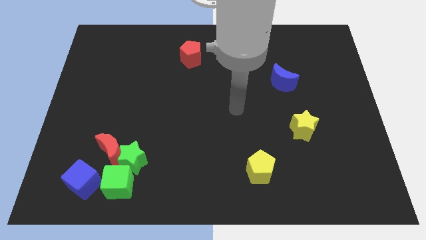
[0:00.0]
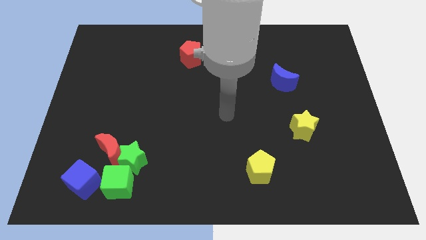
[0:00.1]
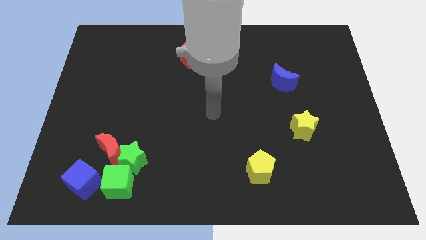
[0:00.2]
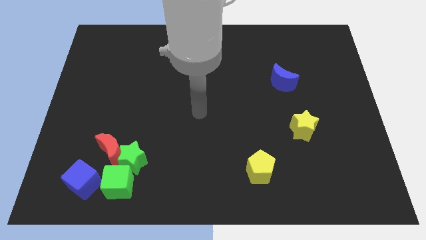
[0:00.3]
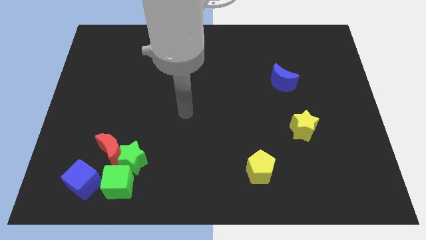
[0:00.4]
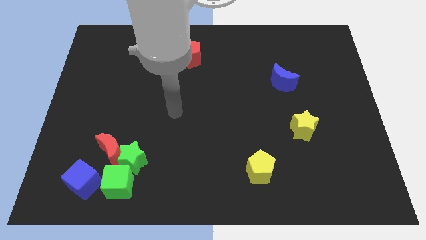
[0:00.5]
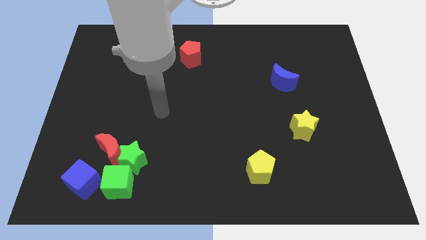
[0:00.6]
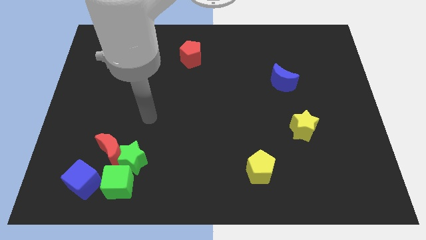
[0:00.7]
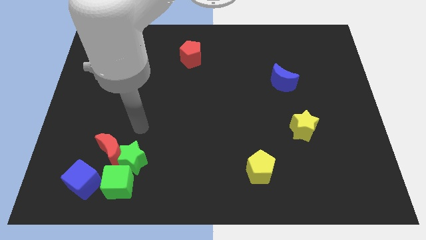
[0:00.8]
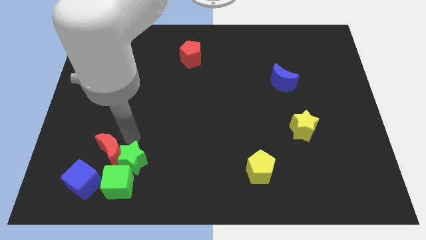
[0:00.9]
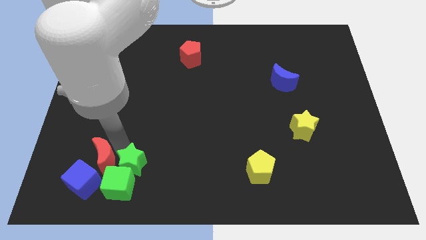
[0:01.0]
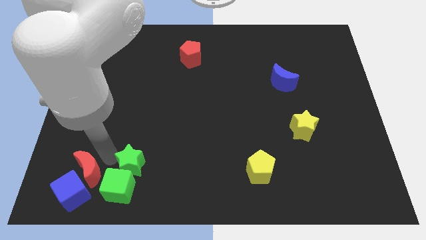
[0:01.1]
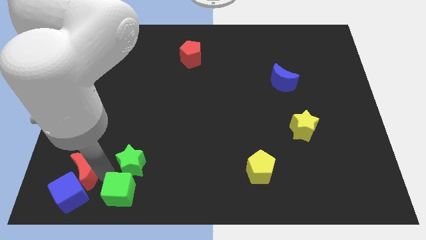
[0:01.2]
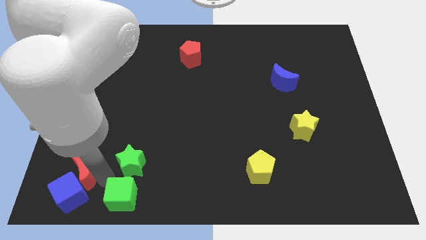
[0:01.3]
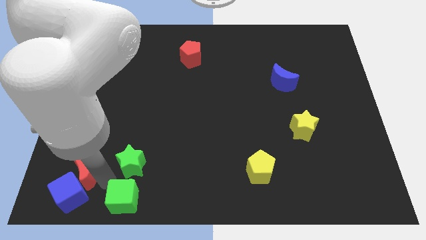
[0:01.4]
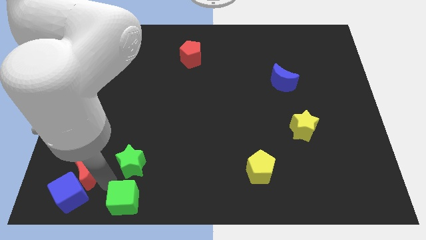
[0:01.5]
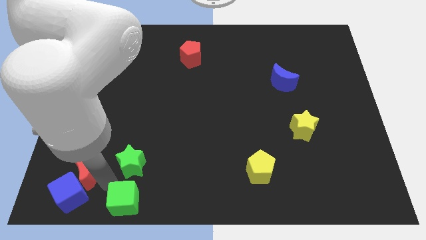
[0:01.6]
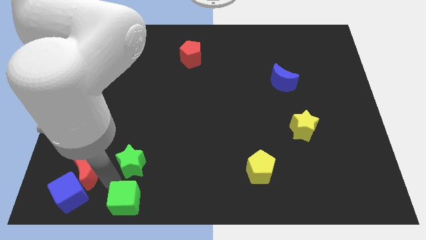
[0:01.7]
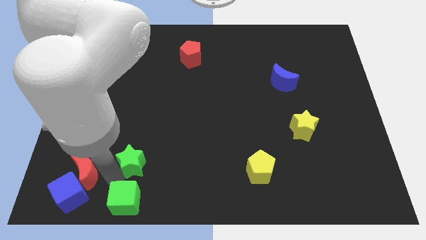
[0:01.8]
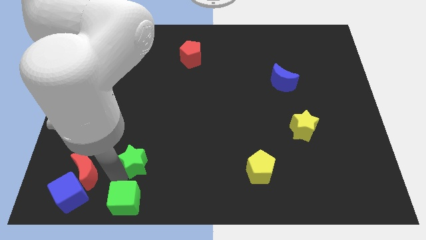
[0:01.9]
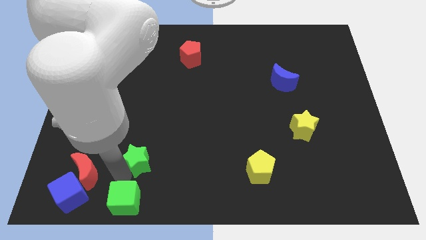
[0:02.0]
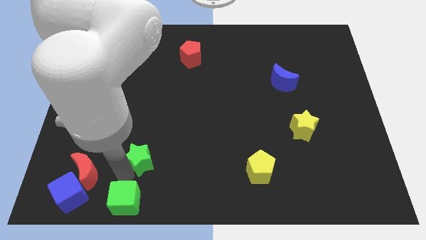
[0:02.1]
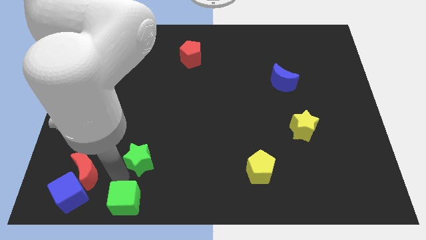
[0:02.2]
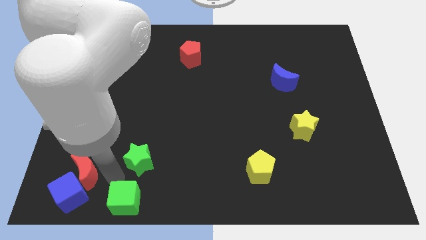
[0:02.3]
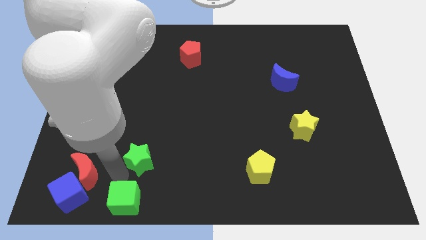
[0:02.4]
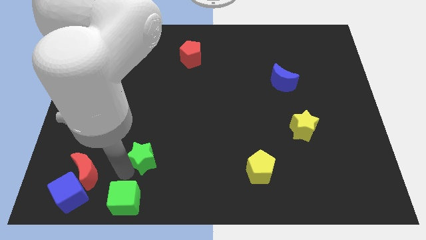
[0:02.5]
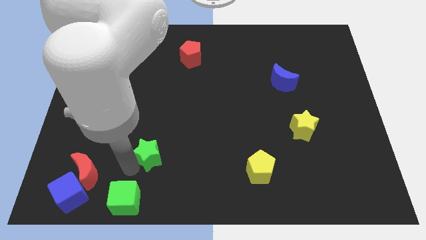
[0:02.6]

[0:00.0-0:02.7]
move the green star away from the red moon and green cube

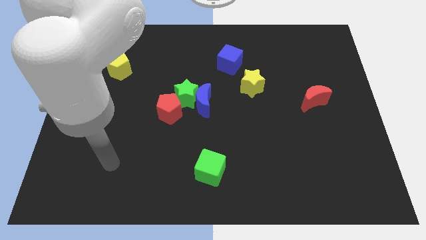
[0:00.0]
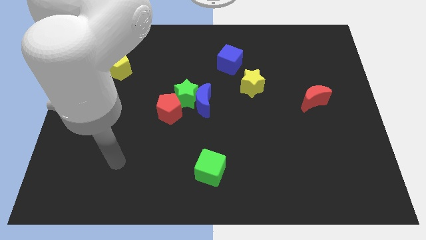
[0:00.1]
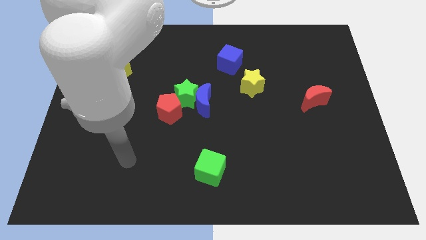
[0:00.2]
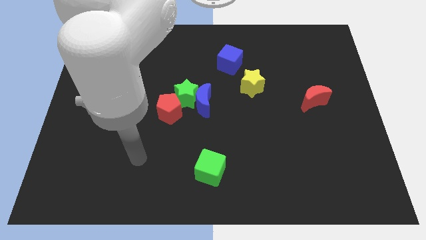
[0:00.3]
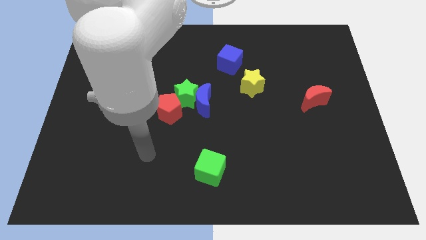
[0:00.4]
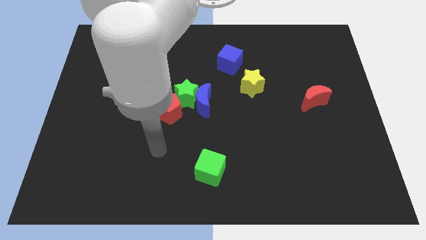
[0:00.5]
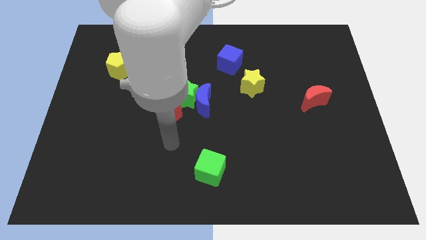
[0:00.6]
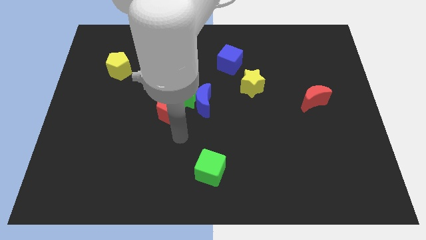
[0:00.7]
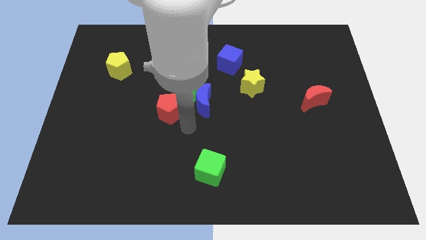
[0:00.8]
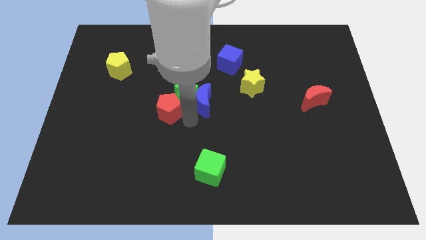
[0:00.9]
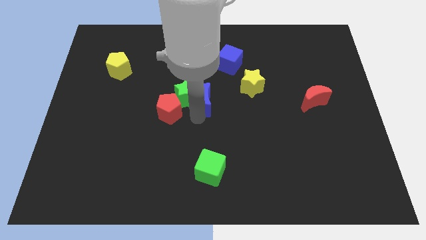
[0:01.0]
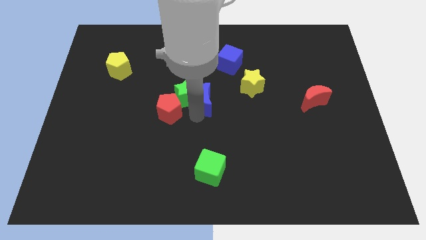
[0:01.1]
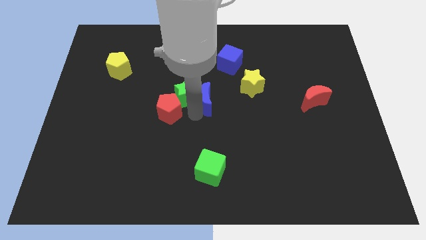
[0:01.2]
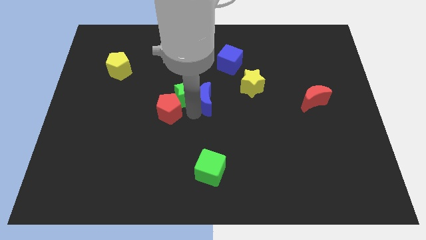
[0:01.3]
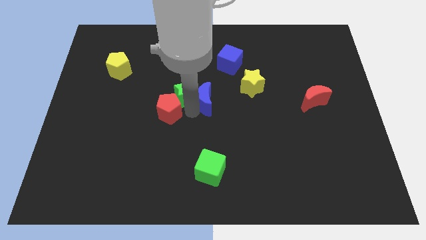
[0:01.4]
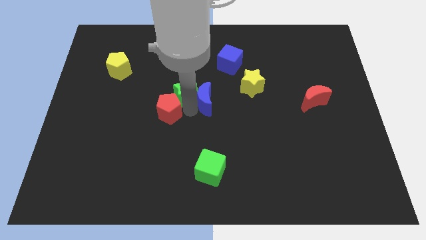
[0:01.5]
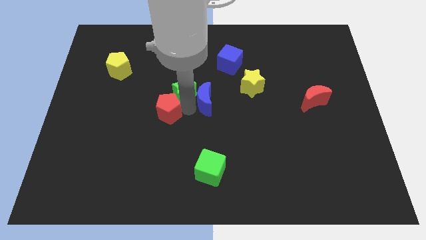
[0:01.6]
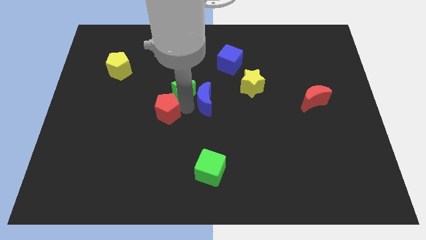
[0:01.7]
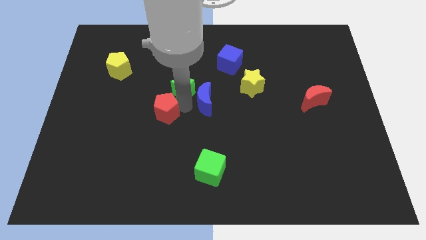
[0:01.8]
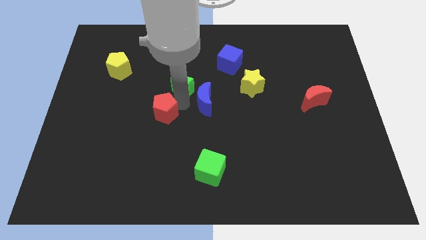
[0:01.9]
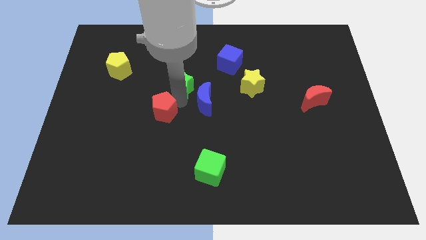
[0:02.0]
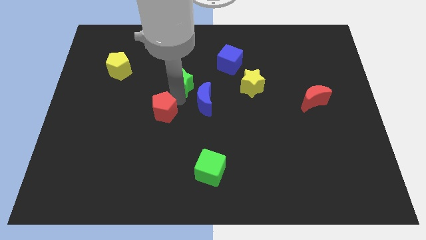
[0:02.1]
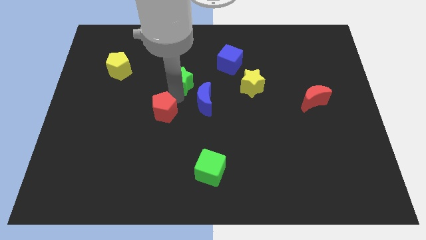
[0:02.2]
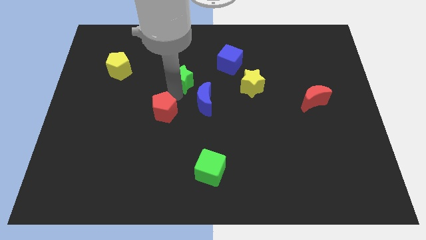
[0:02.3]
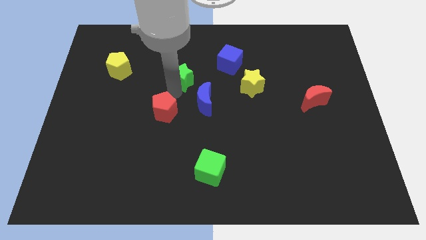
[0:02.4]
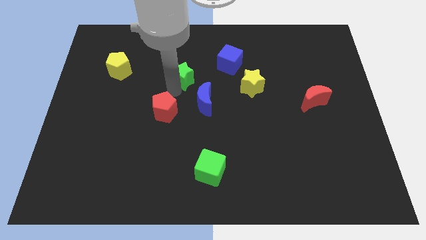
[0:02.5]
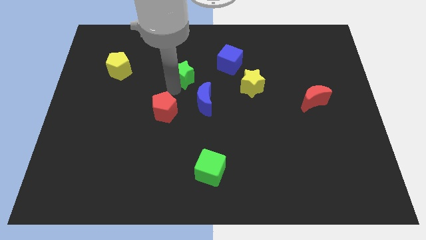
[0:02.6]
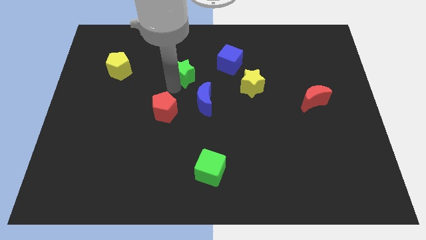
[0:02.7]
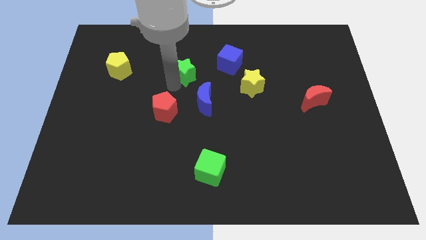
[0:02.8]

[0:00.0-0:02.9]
move the green star away from the blue moon and red pentagon

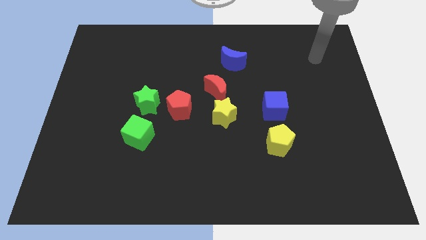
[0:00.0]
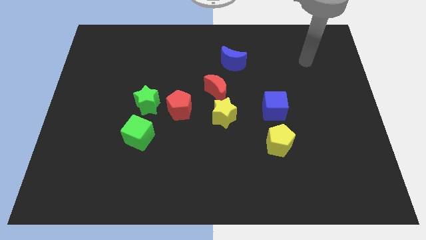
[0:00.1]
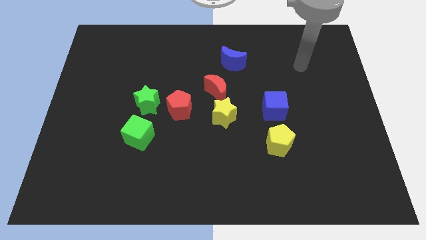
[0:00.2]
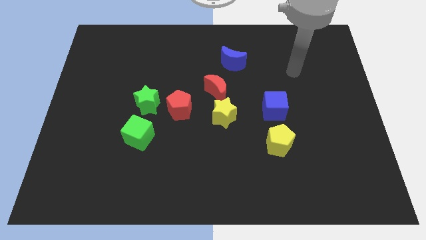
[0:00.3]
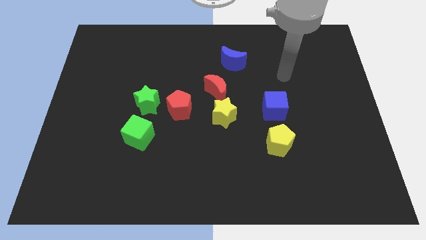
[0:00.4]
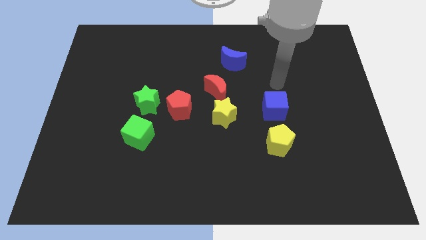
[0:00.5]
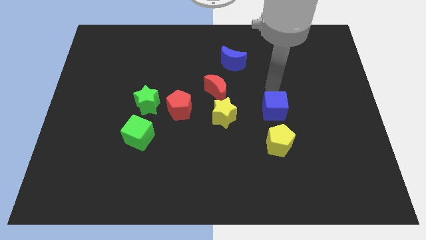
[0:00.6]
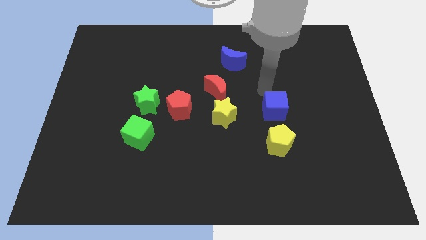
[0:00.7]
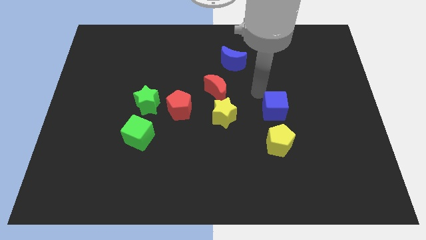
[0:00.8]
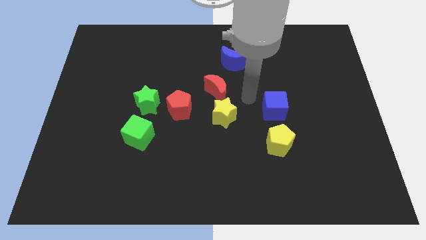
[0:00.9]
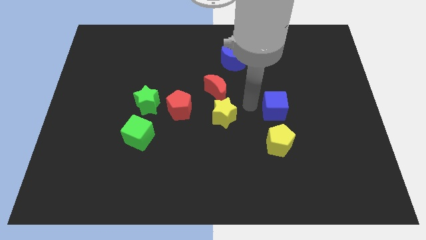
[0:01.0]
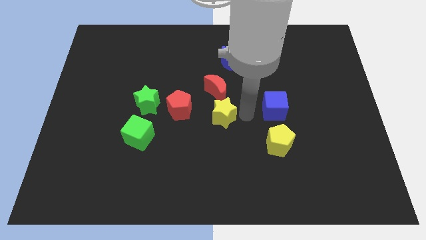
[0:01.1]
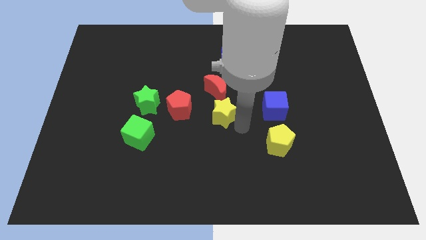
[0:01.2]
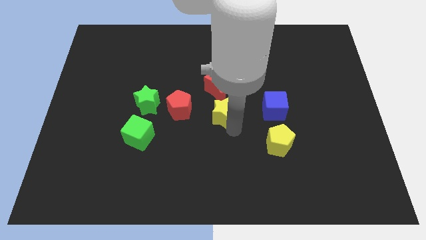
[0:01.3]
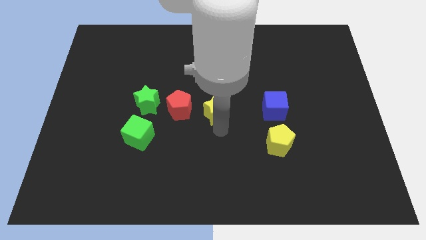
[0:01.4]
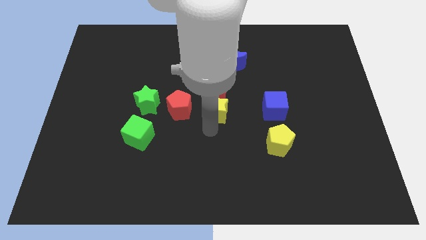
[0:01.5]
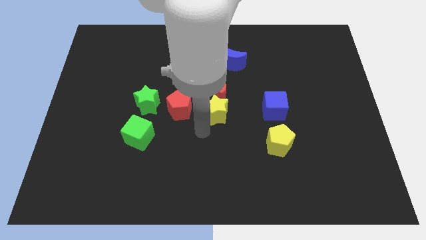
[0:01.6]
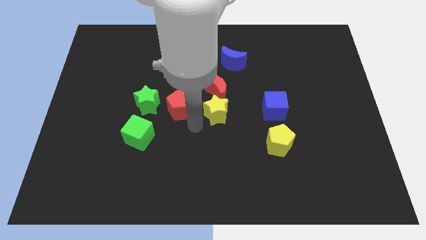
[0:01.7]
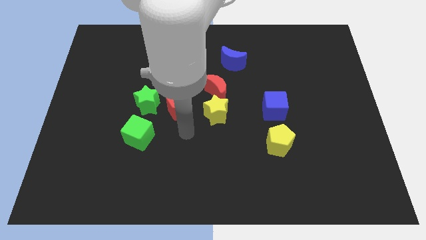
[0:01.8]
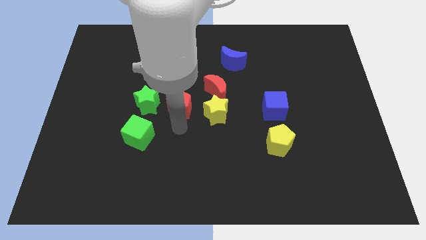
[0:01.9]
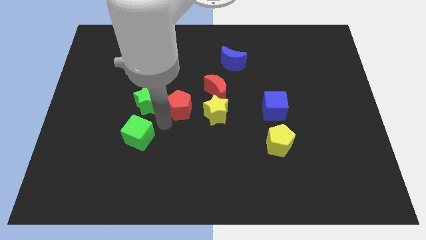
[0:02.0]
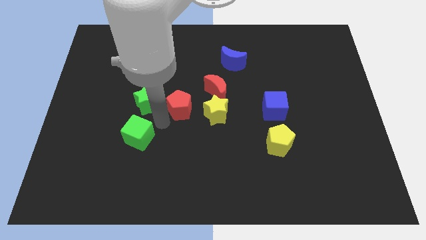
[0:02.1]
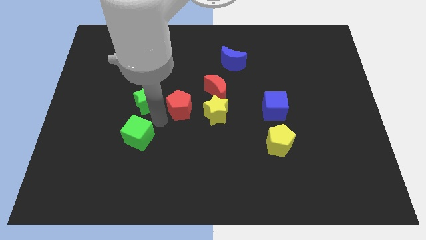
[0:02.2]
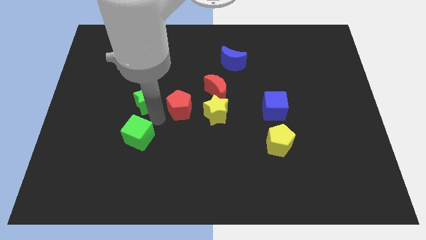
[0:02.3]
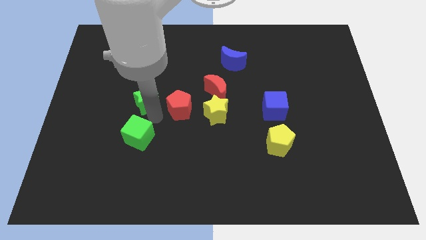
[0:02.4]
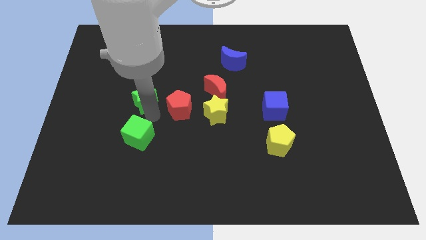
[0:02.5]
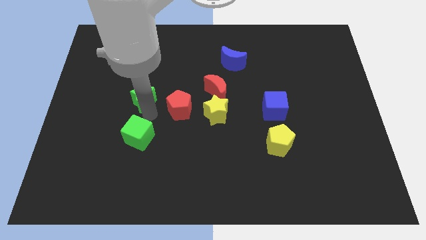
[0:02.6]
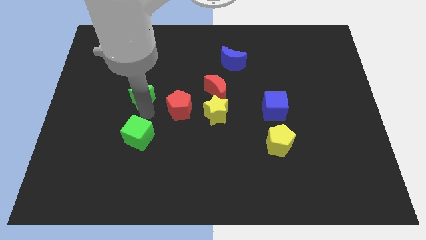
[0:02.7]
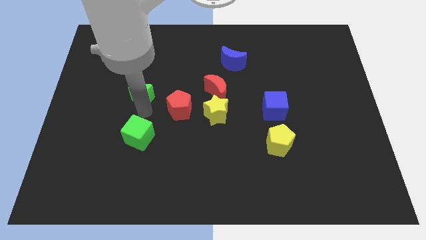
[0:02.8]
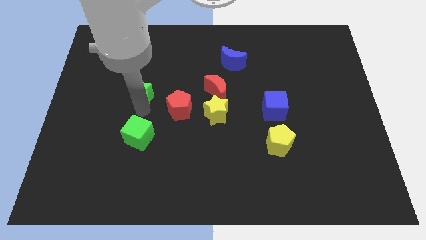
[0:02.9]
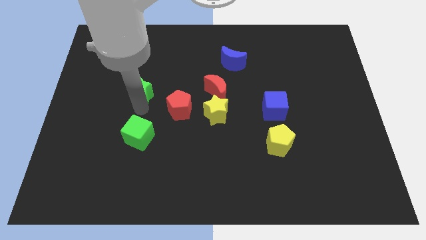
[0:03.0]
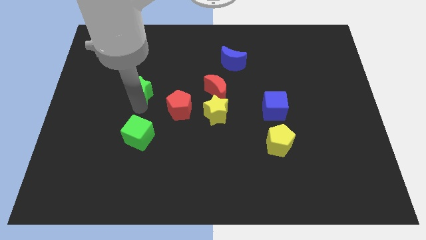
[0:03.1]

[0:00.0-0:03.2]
move the green star away from the red pentagon and green cube

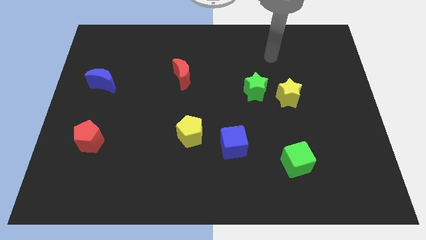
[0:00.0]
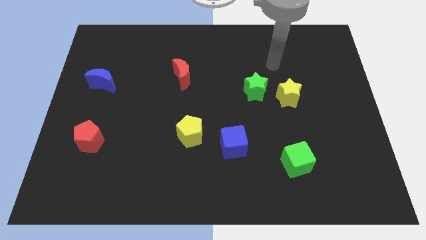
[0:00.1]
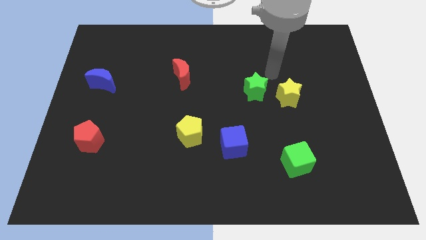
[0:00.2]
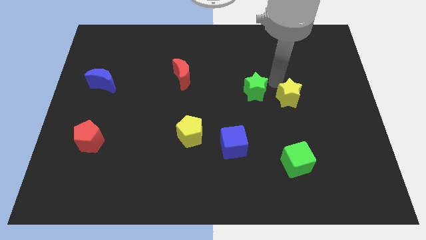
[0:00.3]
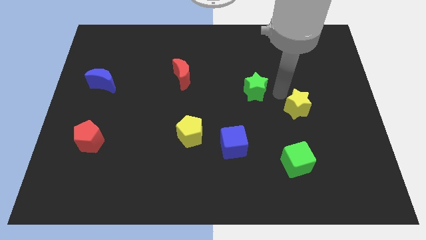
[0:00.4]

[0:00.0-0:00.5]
pull the green star apart from the yellow star
